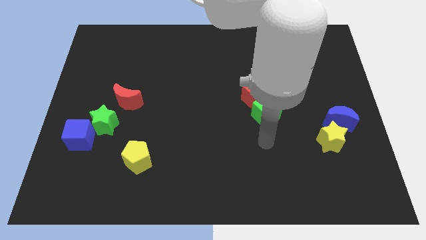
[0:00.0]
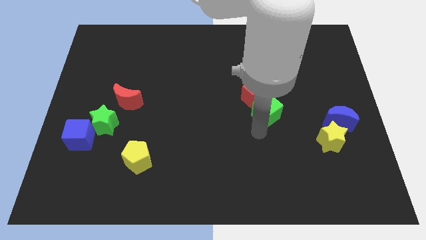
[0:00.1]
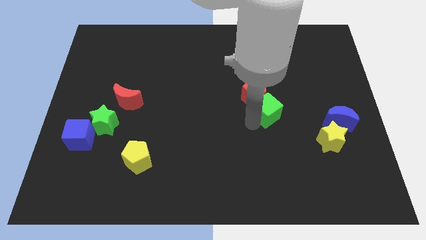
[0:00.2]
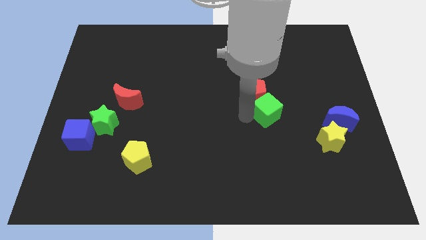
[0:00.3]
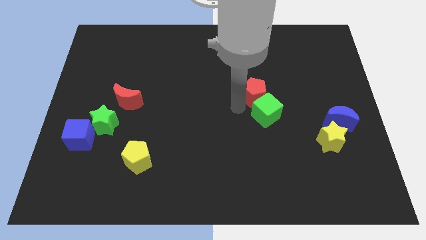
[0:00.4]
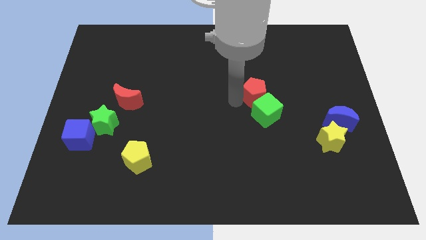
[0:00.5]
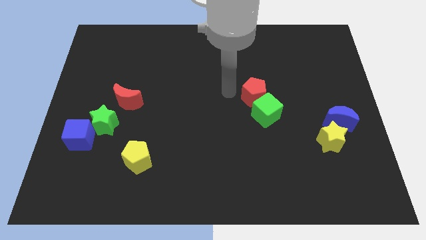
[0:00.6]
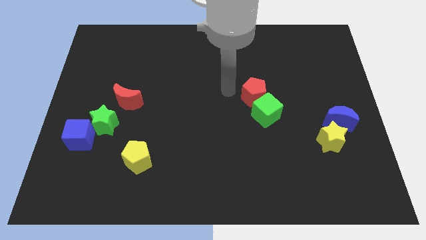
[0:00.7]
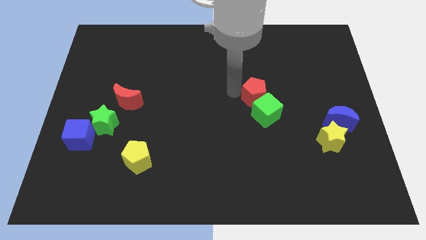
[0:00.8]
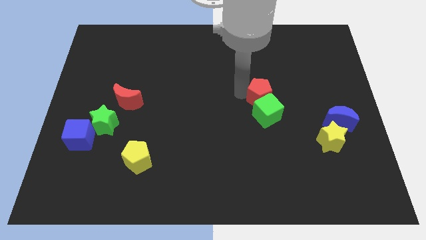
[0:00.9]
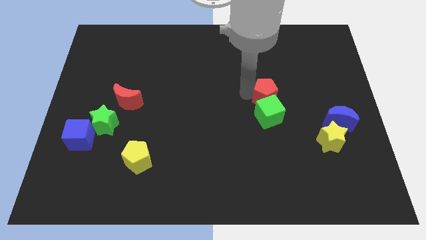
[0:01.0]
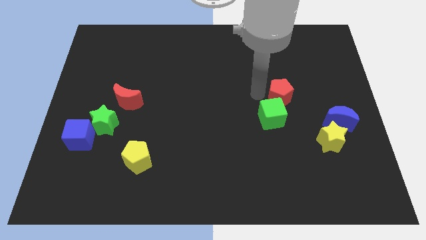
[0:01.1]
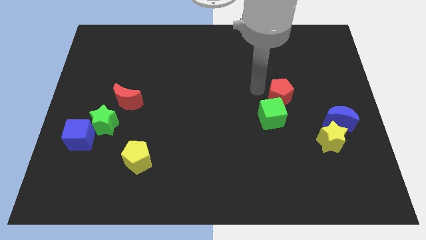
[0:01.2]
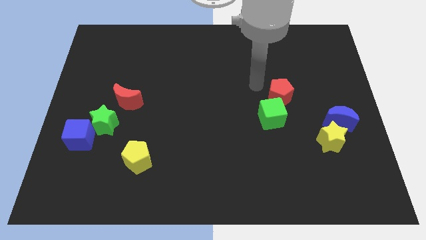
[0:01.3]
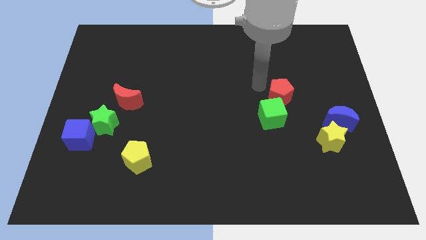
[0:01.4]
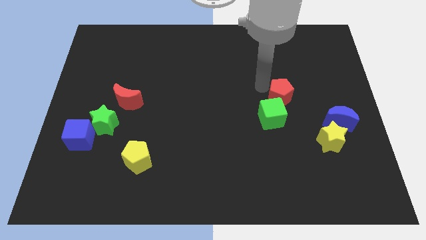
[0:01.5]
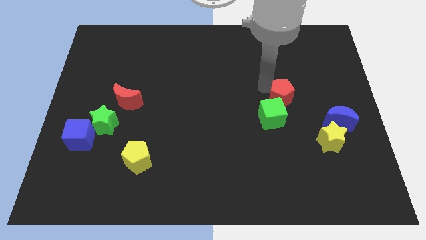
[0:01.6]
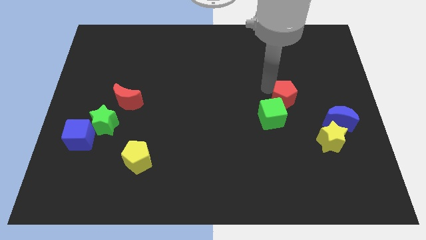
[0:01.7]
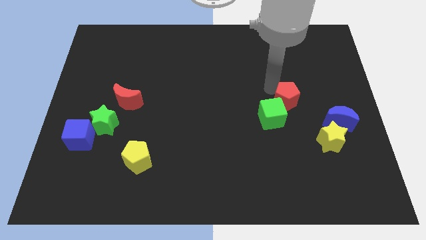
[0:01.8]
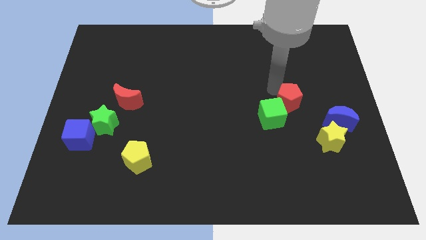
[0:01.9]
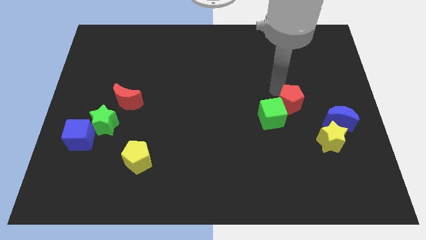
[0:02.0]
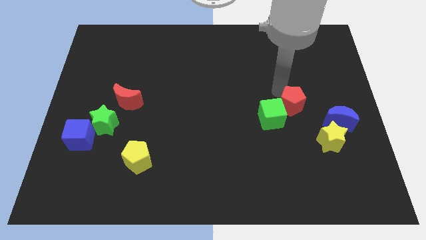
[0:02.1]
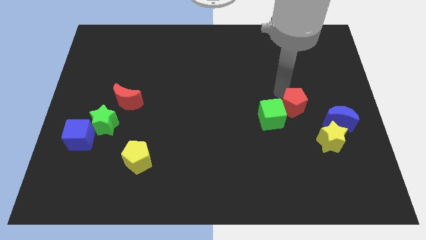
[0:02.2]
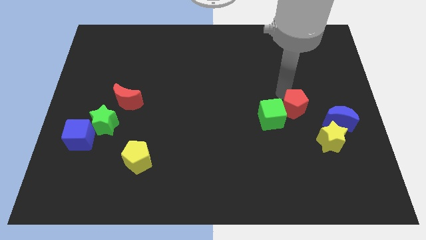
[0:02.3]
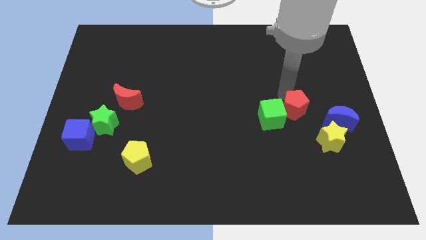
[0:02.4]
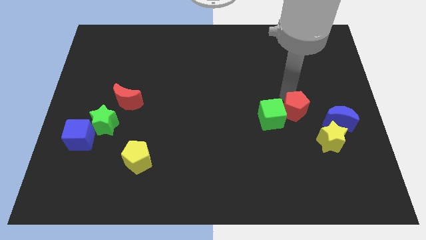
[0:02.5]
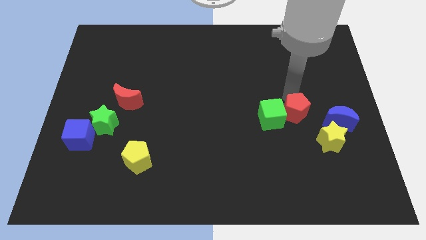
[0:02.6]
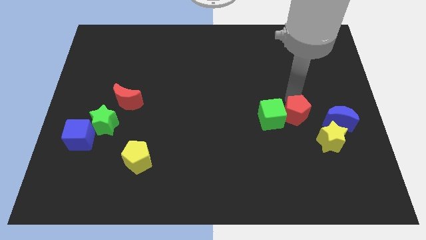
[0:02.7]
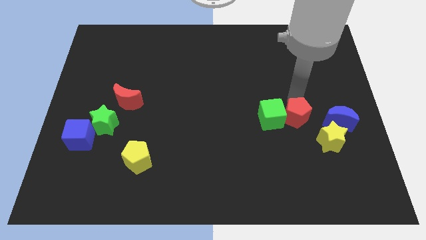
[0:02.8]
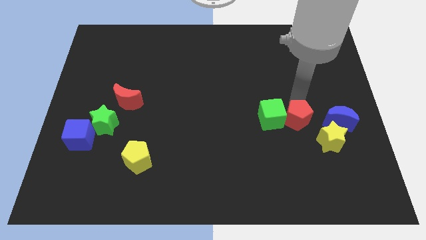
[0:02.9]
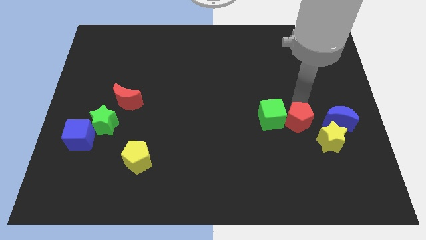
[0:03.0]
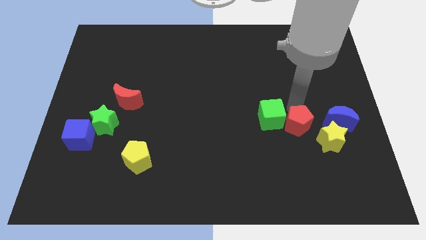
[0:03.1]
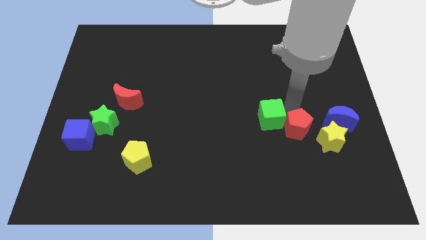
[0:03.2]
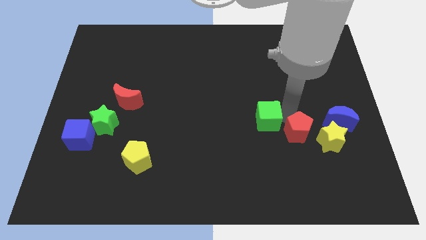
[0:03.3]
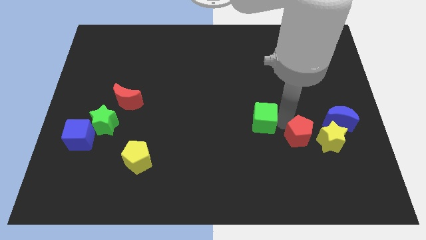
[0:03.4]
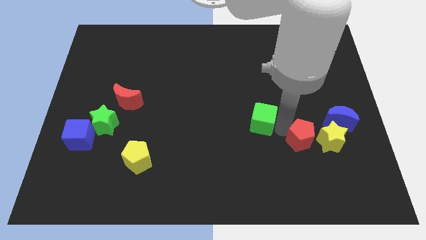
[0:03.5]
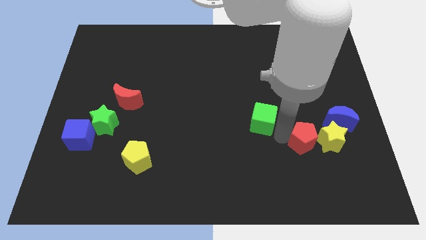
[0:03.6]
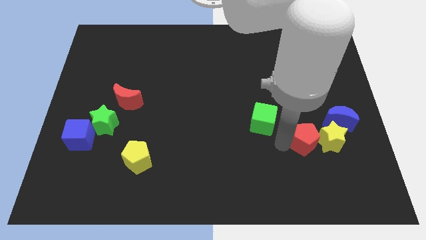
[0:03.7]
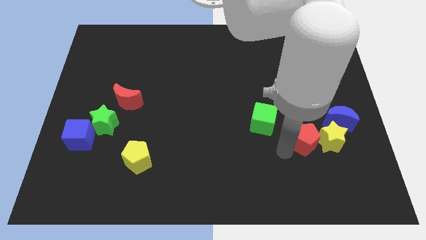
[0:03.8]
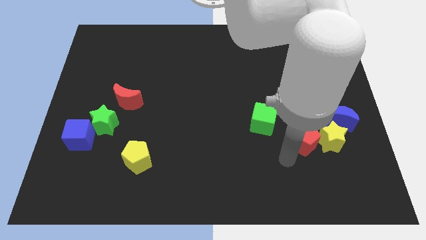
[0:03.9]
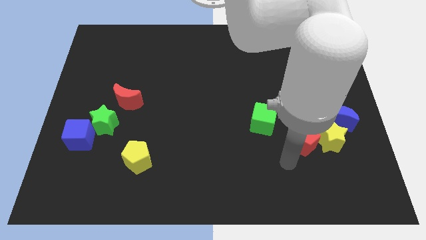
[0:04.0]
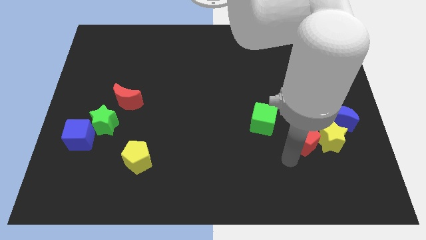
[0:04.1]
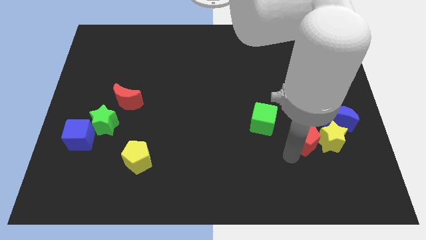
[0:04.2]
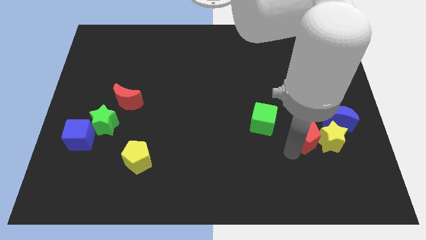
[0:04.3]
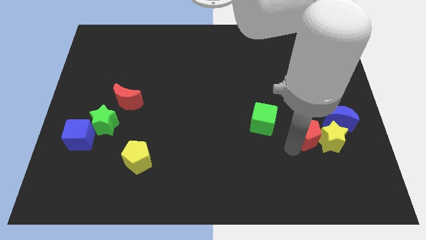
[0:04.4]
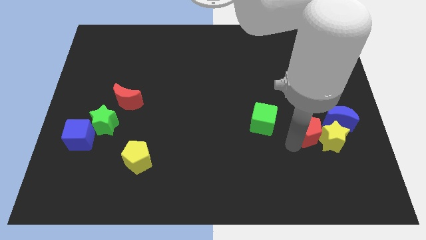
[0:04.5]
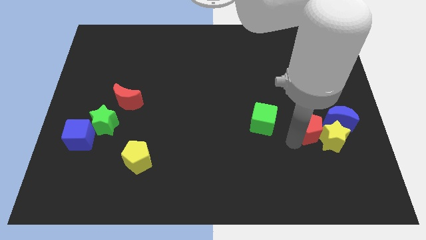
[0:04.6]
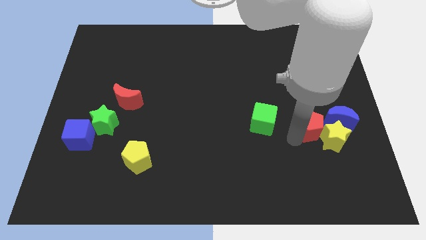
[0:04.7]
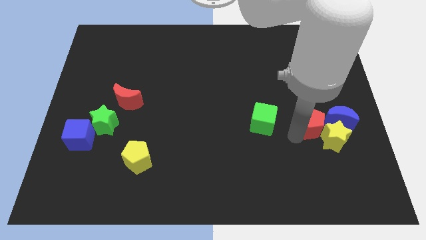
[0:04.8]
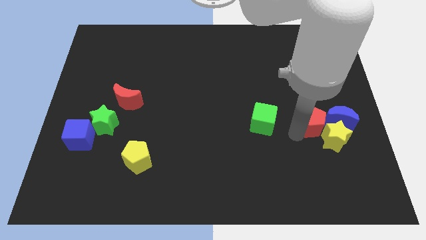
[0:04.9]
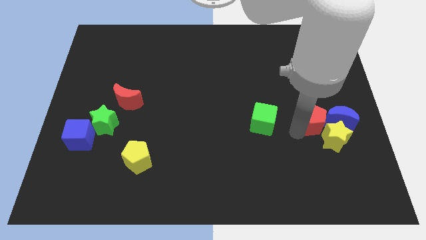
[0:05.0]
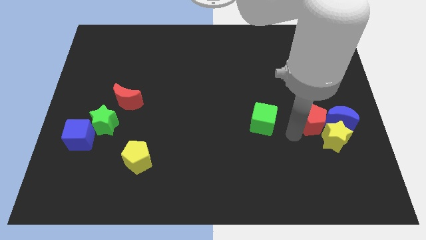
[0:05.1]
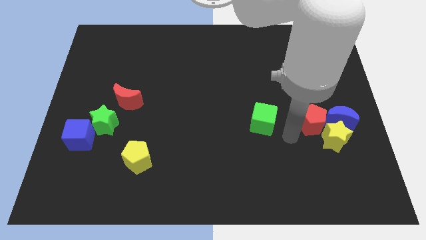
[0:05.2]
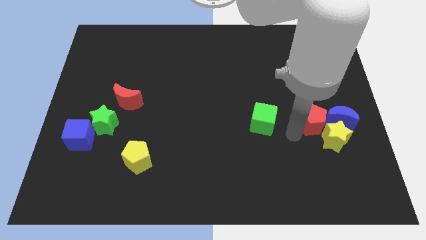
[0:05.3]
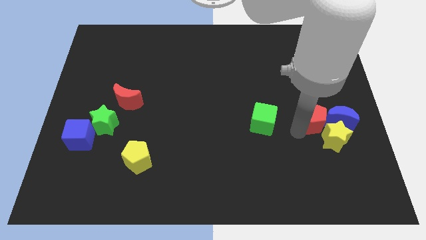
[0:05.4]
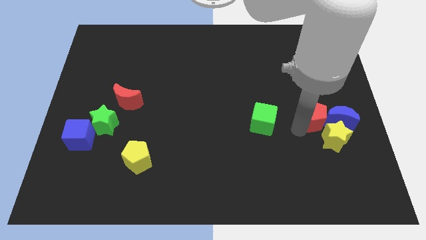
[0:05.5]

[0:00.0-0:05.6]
put the red pentagon close to the blue moon
